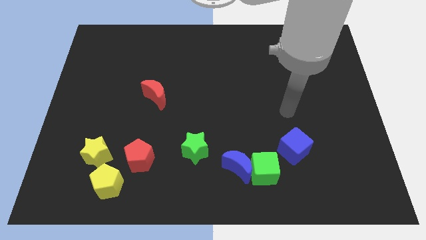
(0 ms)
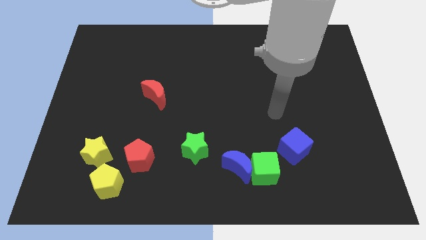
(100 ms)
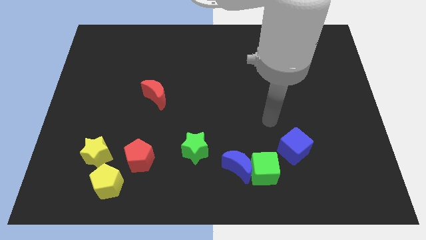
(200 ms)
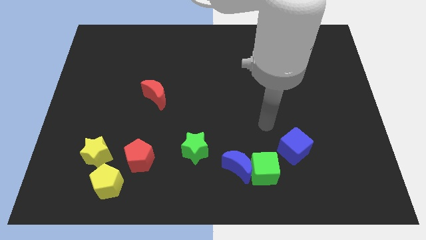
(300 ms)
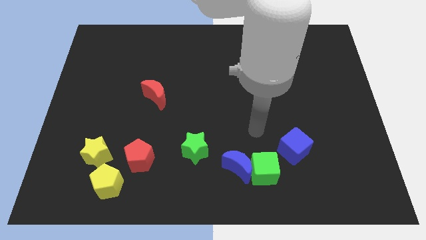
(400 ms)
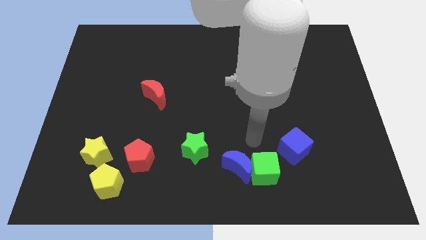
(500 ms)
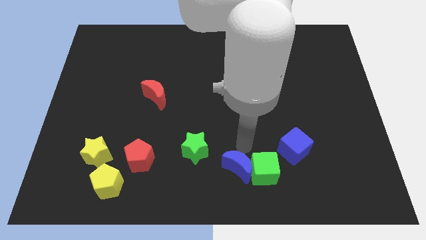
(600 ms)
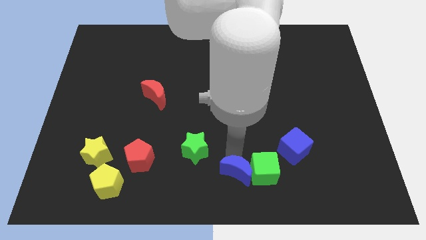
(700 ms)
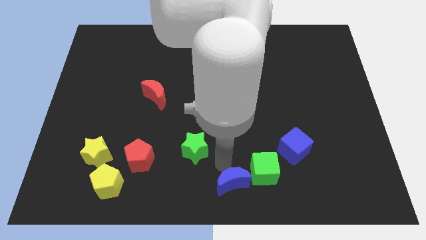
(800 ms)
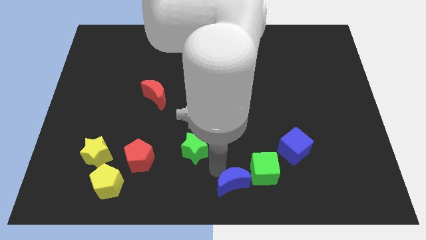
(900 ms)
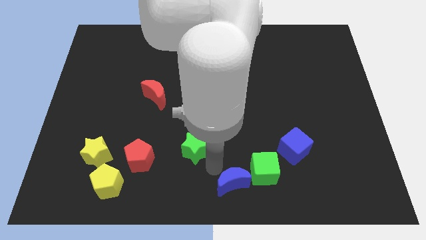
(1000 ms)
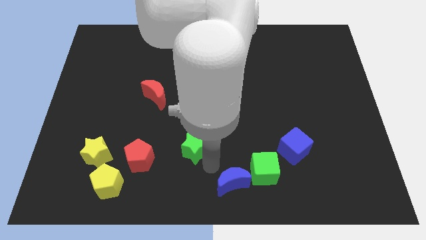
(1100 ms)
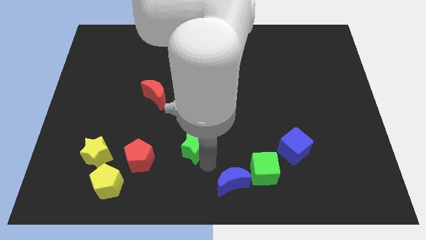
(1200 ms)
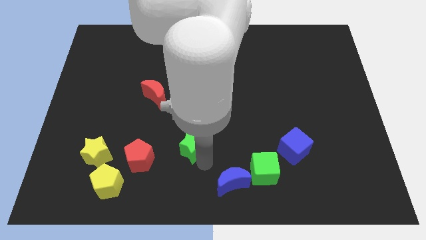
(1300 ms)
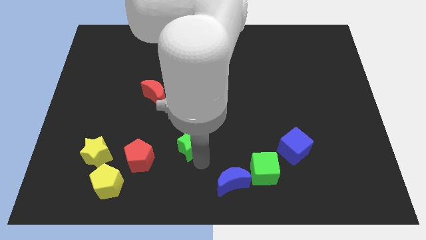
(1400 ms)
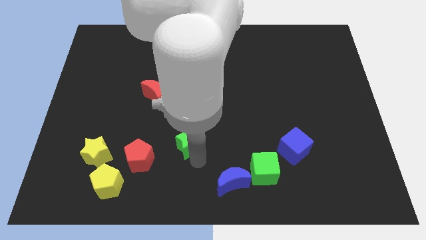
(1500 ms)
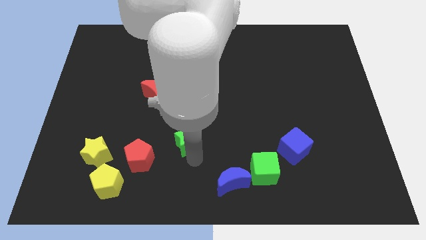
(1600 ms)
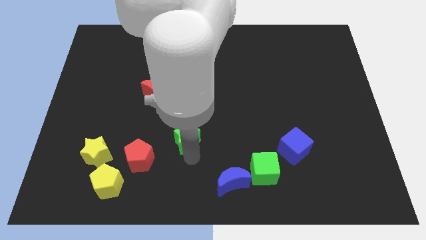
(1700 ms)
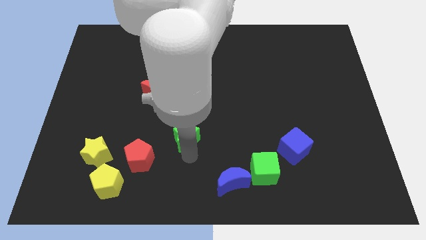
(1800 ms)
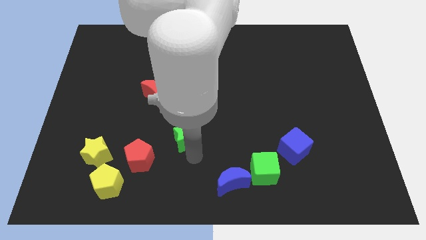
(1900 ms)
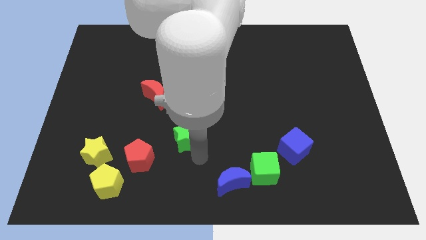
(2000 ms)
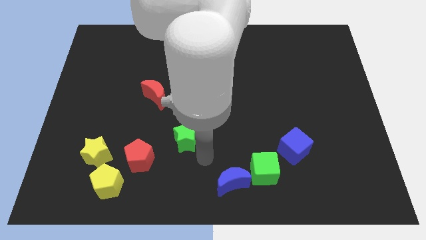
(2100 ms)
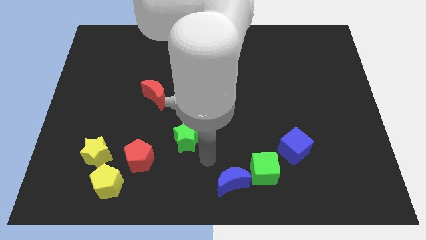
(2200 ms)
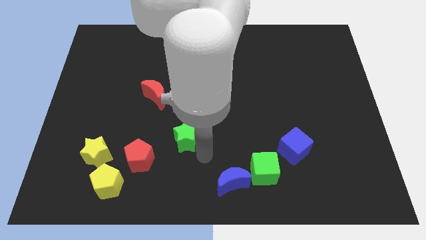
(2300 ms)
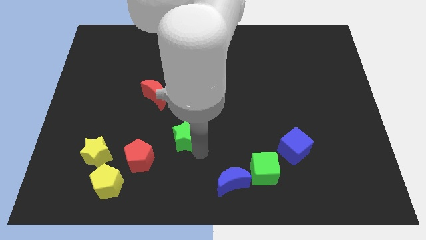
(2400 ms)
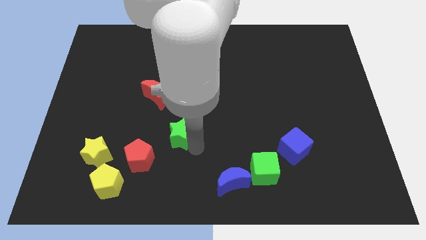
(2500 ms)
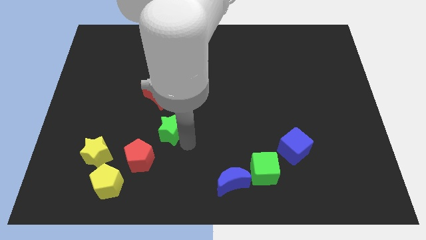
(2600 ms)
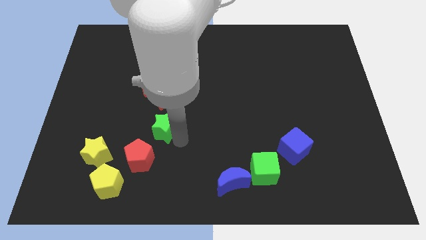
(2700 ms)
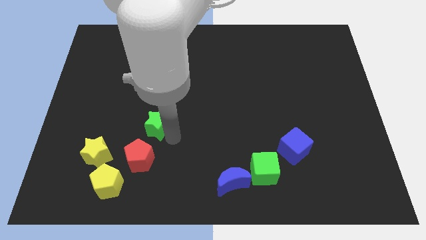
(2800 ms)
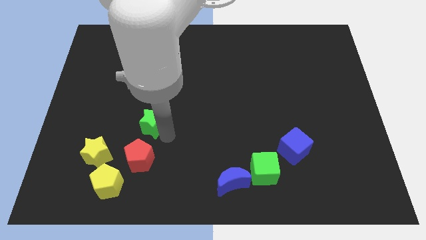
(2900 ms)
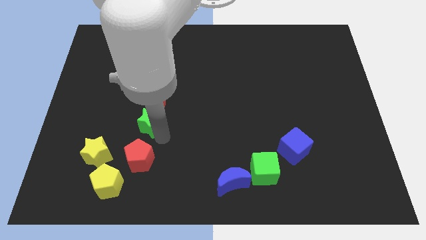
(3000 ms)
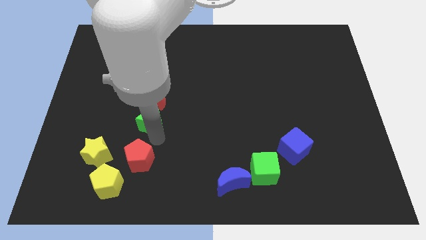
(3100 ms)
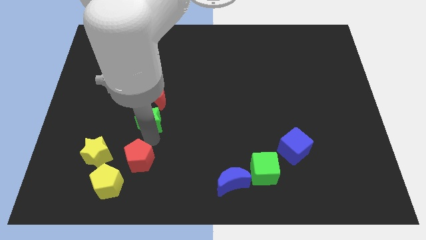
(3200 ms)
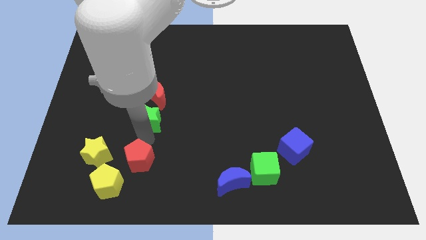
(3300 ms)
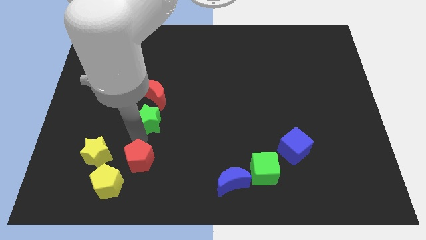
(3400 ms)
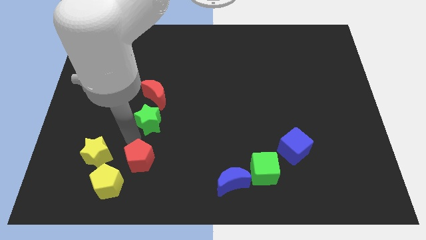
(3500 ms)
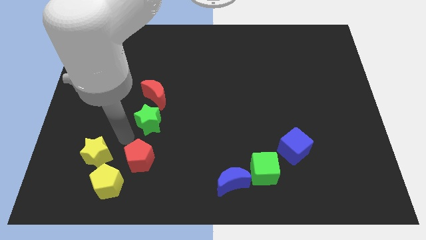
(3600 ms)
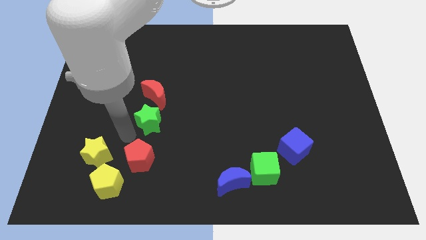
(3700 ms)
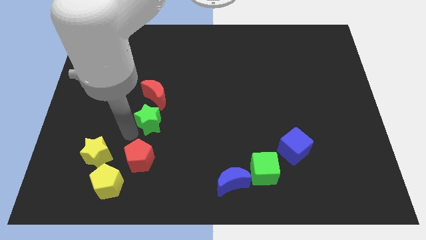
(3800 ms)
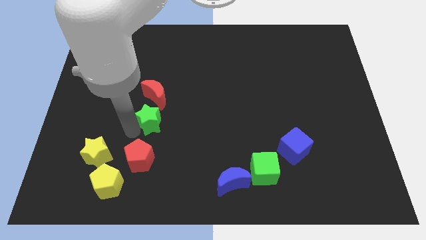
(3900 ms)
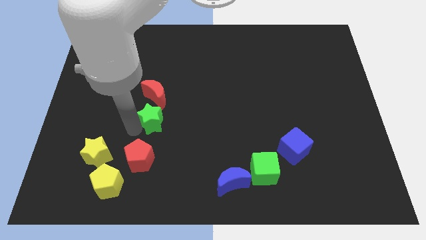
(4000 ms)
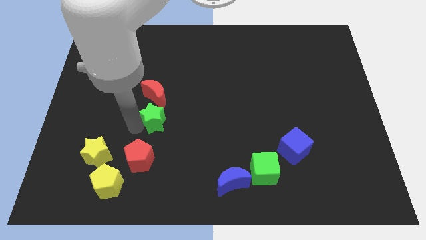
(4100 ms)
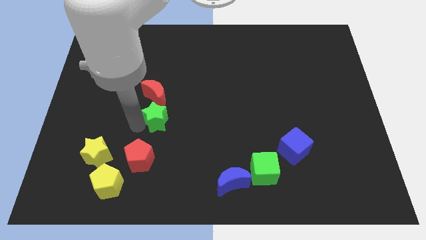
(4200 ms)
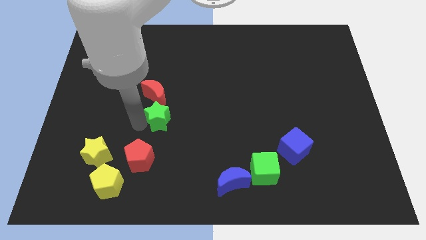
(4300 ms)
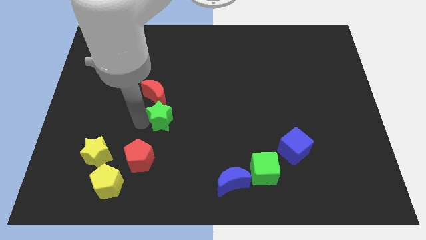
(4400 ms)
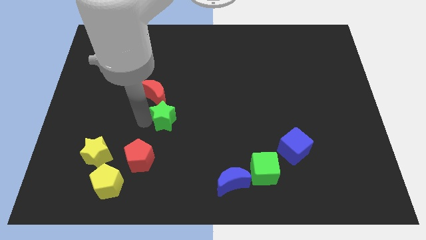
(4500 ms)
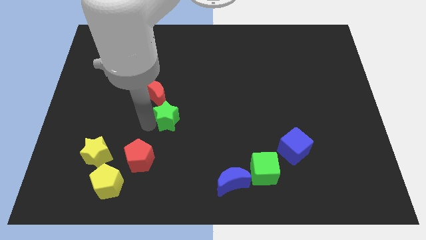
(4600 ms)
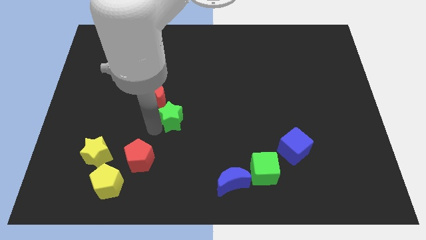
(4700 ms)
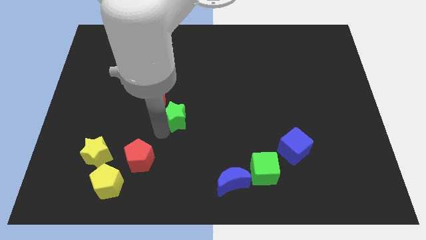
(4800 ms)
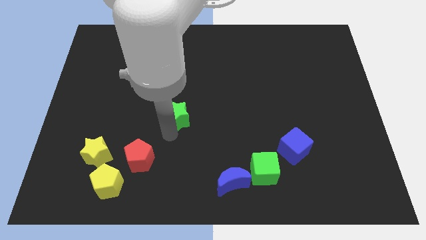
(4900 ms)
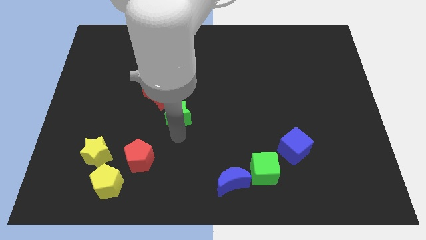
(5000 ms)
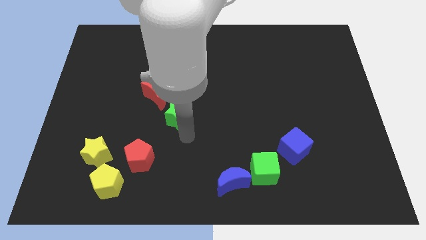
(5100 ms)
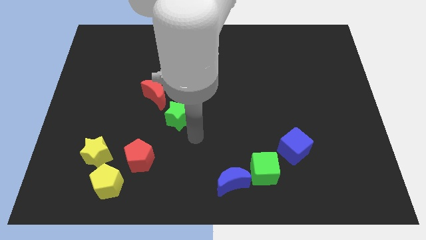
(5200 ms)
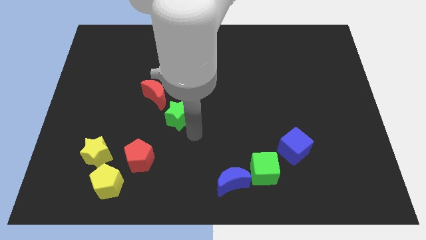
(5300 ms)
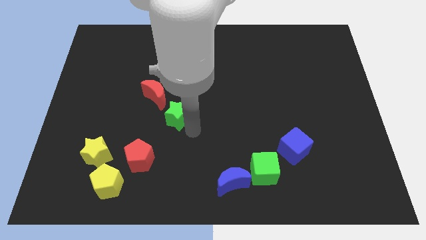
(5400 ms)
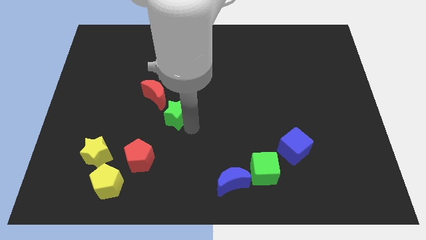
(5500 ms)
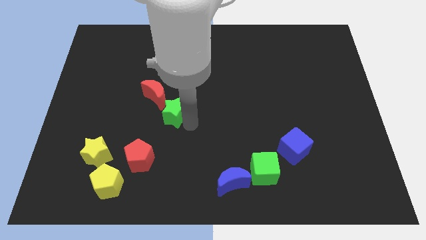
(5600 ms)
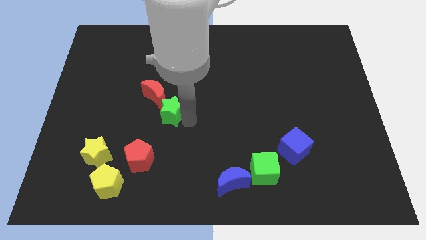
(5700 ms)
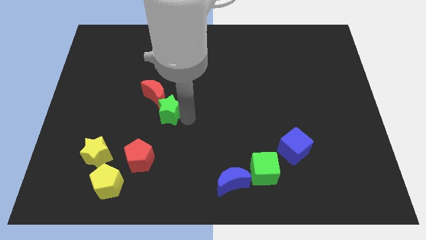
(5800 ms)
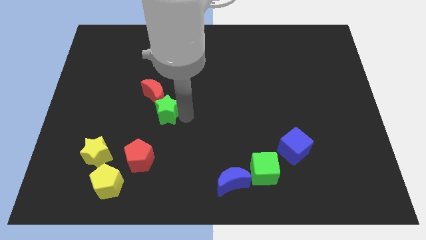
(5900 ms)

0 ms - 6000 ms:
slide the green star towards the red moon

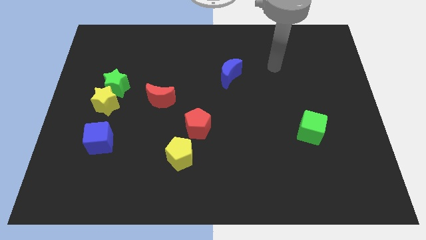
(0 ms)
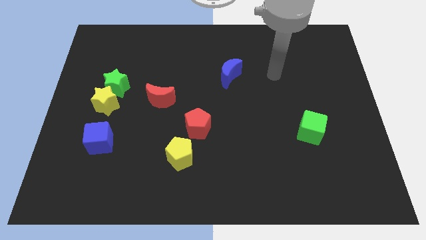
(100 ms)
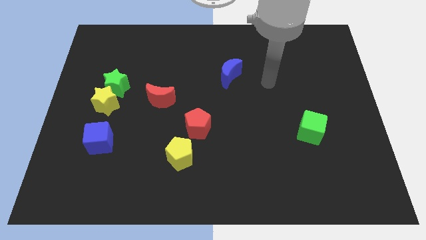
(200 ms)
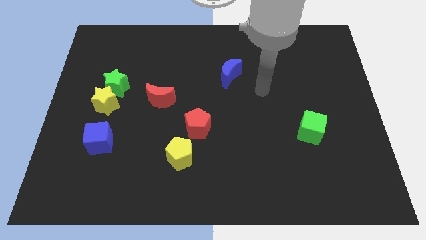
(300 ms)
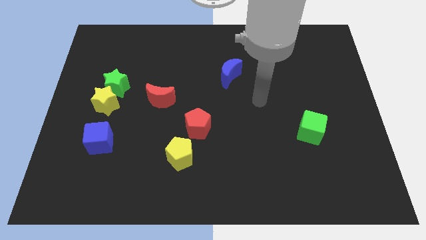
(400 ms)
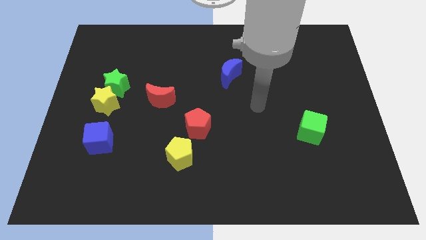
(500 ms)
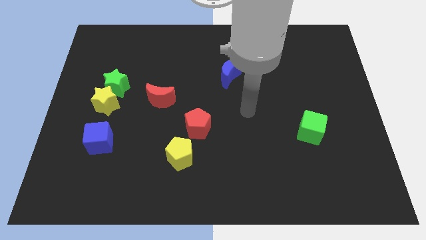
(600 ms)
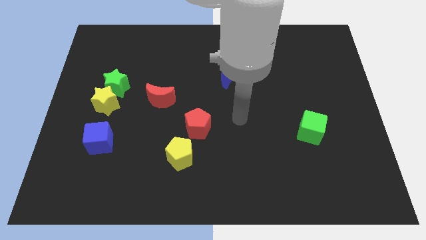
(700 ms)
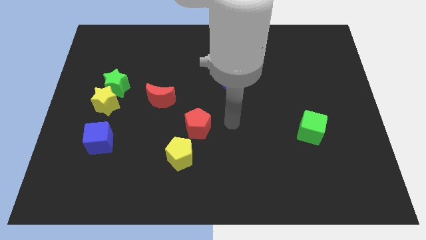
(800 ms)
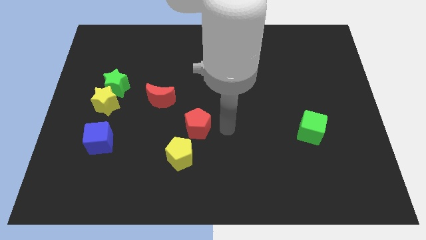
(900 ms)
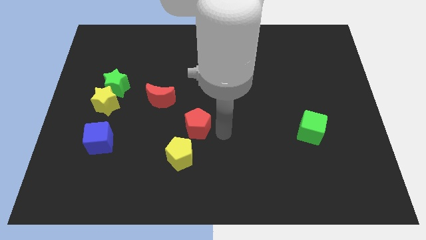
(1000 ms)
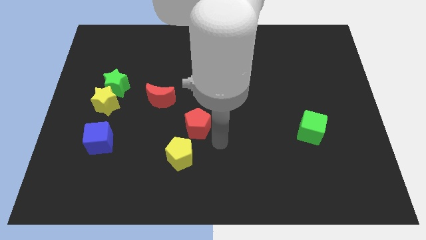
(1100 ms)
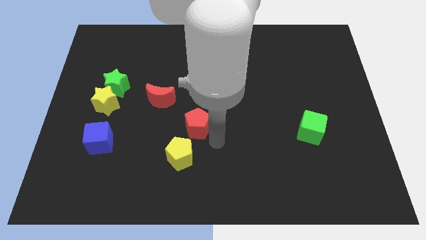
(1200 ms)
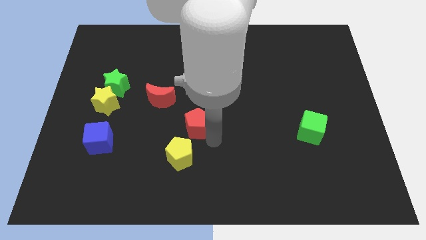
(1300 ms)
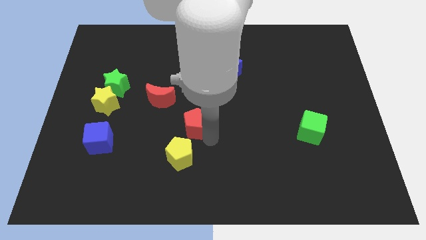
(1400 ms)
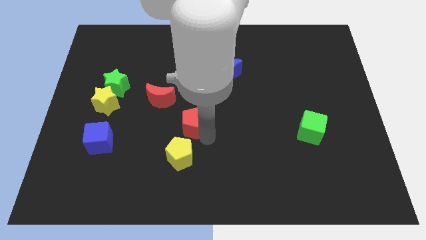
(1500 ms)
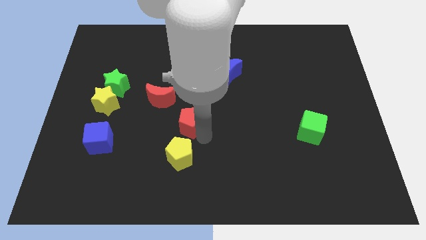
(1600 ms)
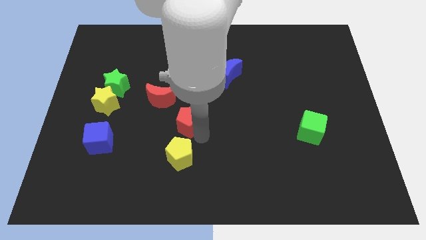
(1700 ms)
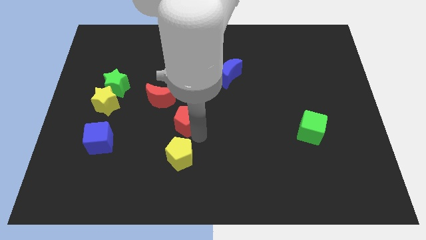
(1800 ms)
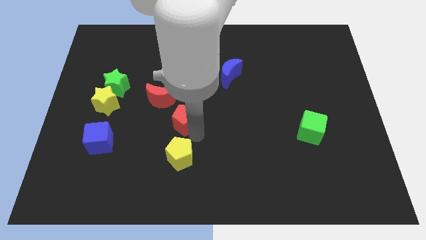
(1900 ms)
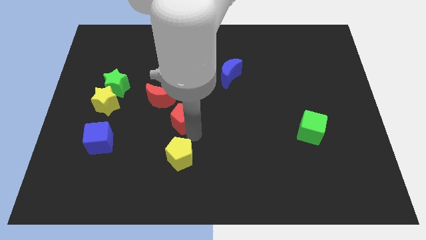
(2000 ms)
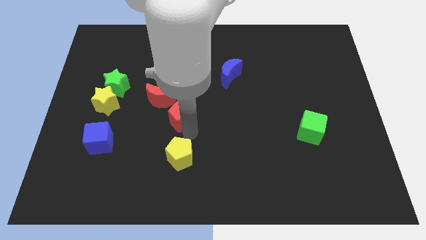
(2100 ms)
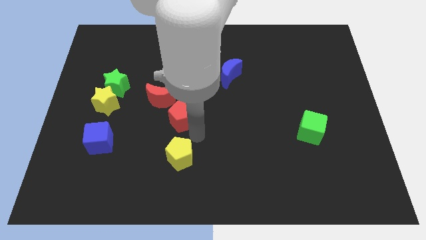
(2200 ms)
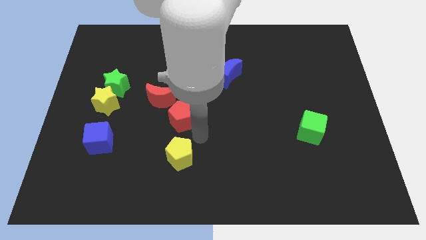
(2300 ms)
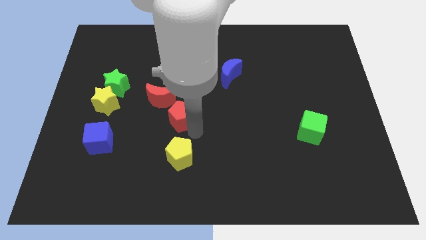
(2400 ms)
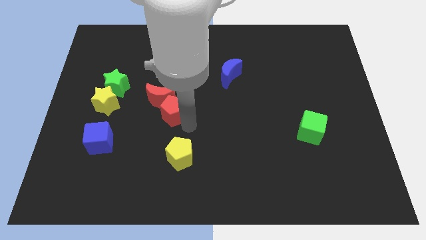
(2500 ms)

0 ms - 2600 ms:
slide the red pentagon next to the red moon
